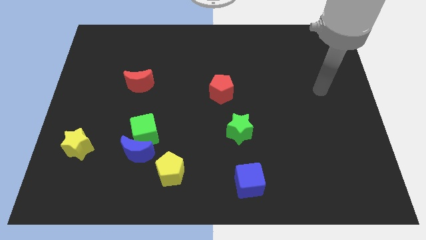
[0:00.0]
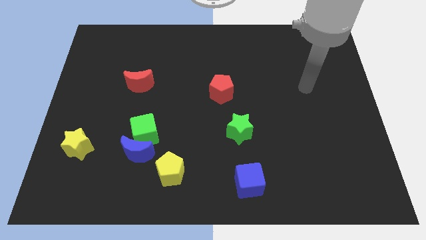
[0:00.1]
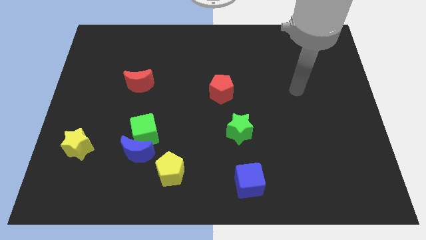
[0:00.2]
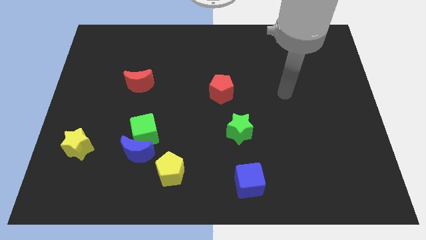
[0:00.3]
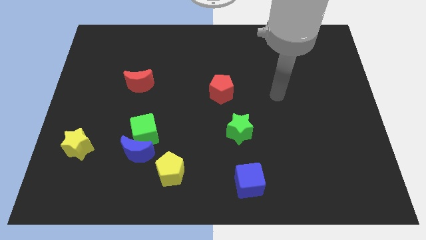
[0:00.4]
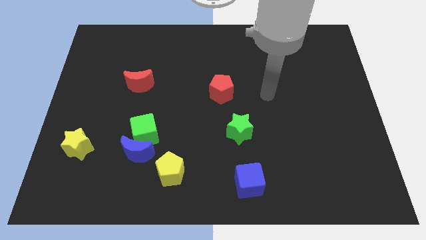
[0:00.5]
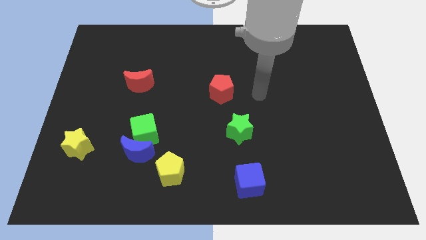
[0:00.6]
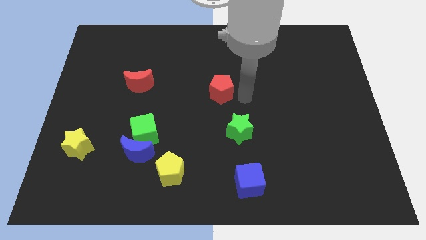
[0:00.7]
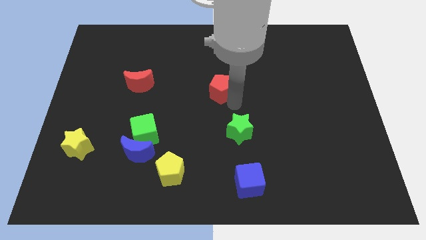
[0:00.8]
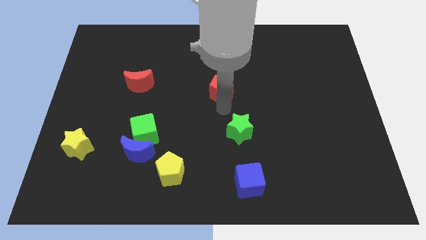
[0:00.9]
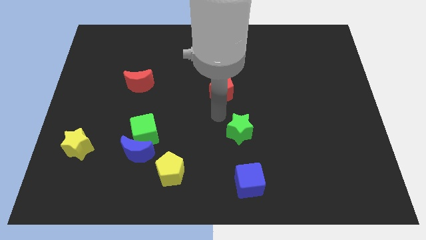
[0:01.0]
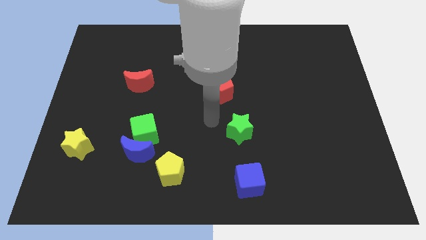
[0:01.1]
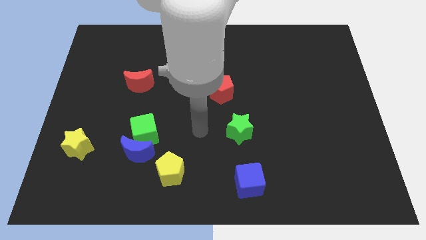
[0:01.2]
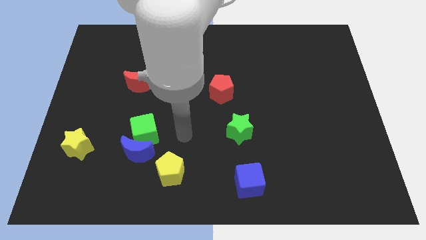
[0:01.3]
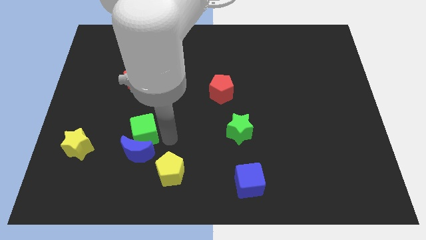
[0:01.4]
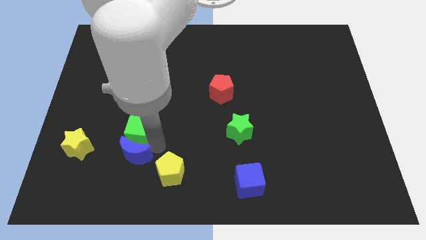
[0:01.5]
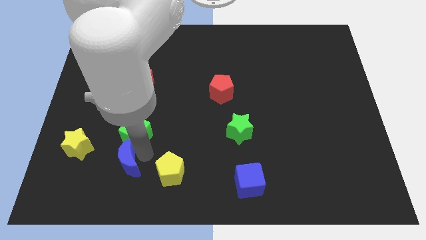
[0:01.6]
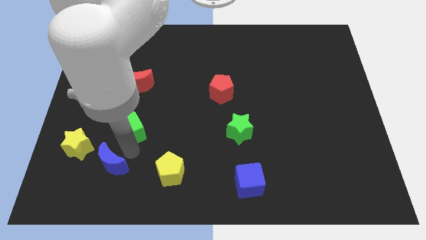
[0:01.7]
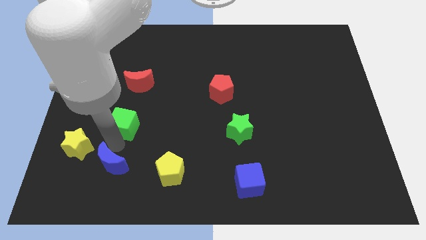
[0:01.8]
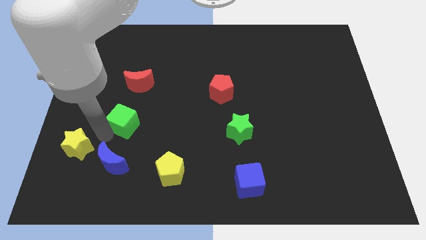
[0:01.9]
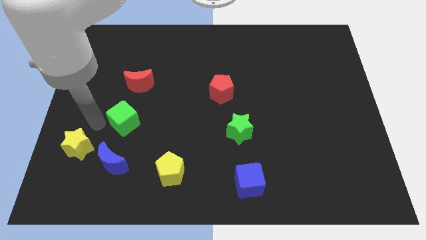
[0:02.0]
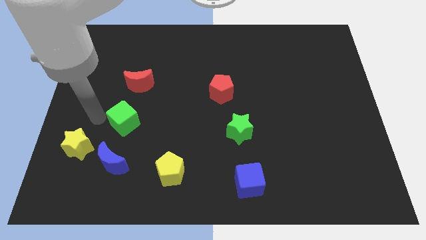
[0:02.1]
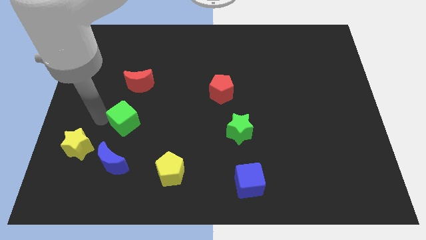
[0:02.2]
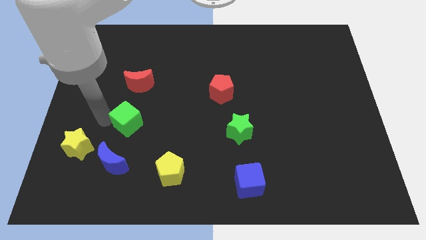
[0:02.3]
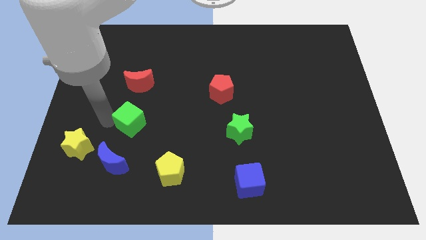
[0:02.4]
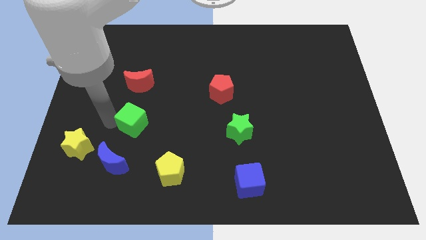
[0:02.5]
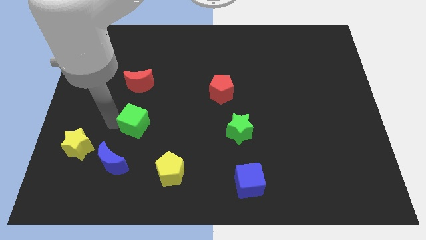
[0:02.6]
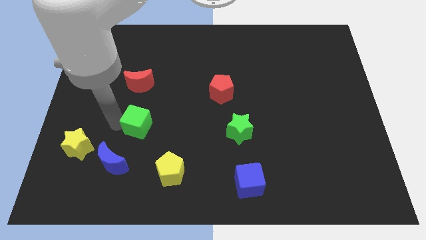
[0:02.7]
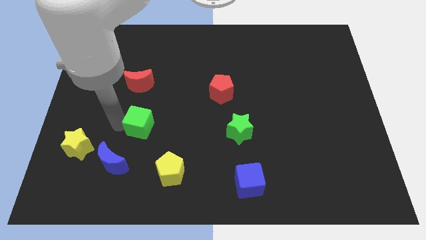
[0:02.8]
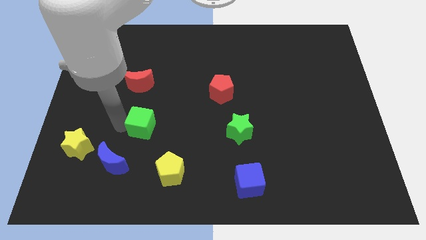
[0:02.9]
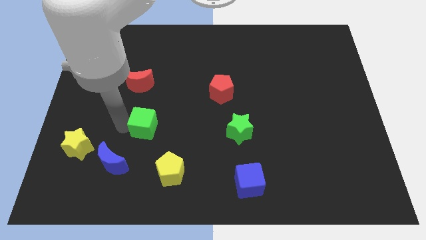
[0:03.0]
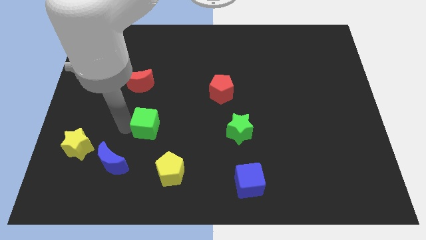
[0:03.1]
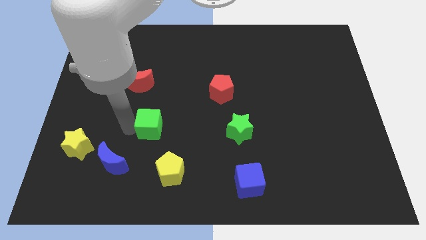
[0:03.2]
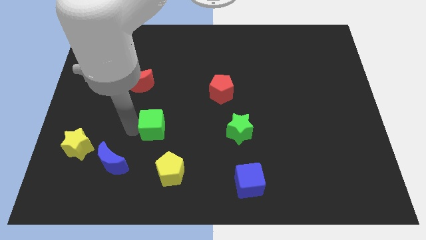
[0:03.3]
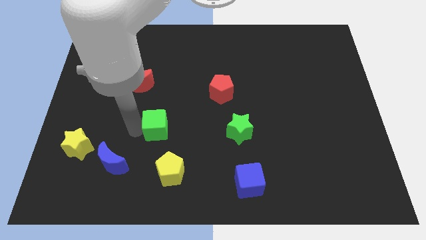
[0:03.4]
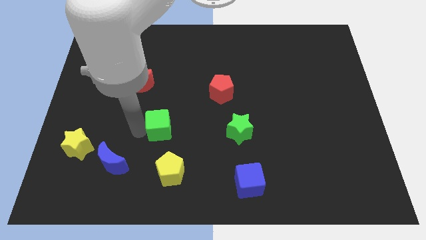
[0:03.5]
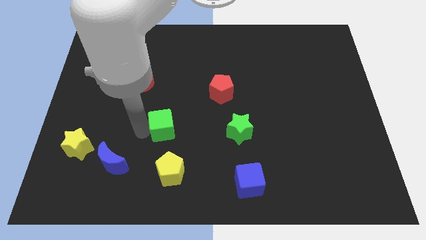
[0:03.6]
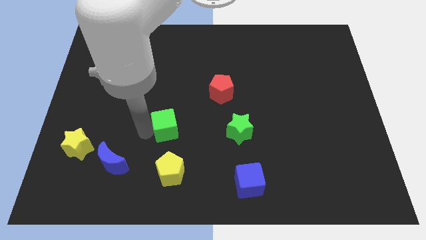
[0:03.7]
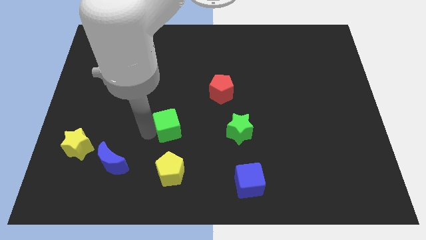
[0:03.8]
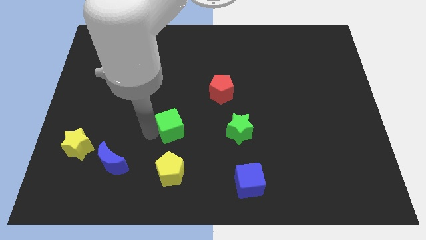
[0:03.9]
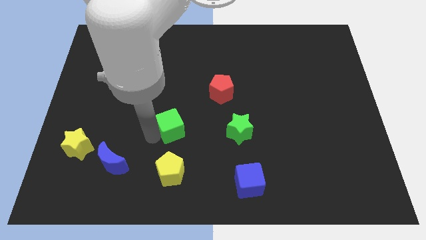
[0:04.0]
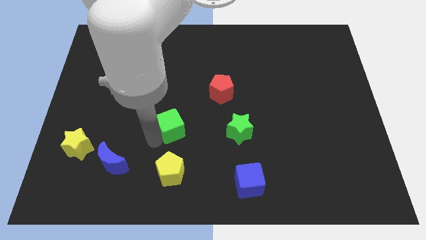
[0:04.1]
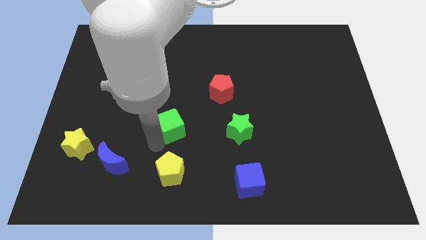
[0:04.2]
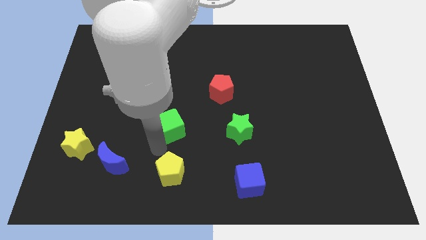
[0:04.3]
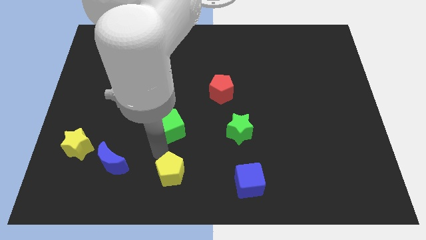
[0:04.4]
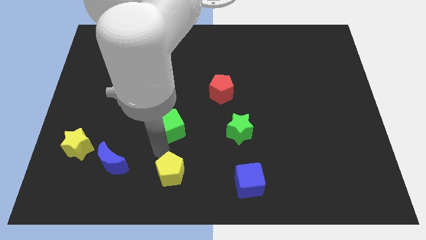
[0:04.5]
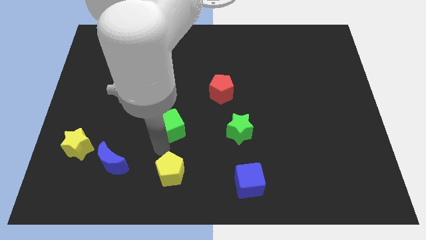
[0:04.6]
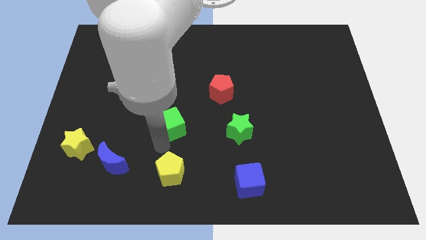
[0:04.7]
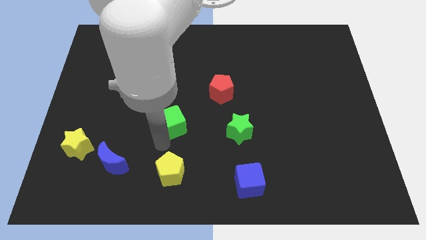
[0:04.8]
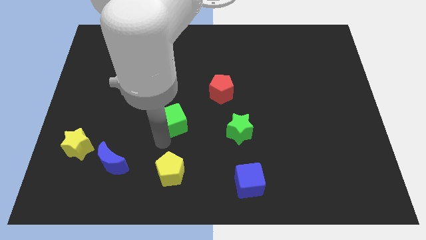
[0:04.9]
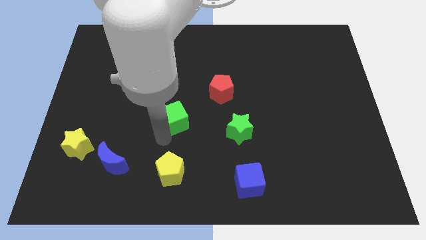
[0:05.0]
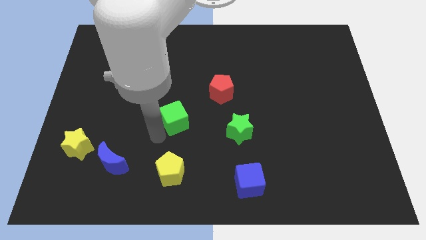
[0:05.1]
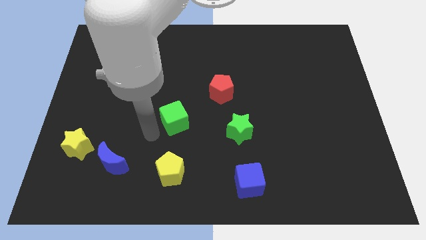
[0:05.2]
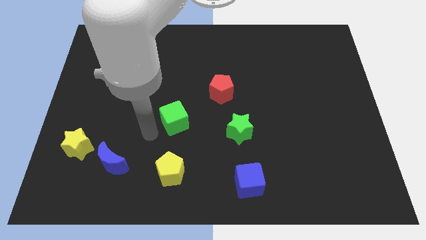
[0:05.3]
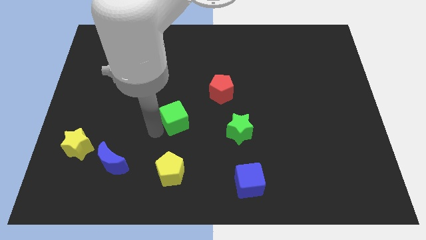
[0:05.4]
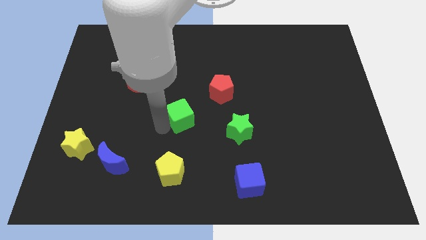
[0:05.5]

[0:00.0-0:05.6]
move the green cube diagonally down and to the left of the red pentagon

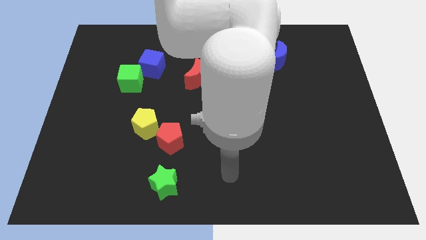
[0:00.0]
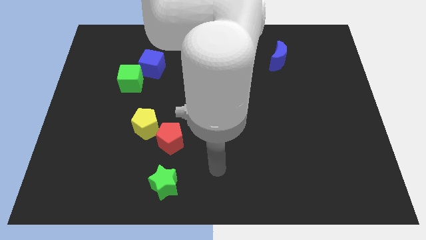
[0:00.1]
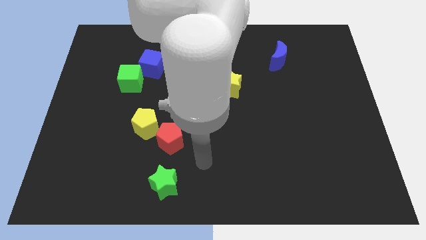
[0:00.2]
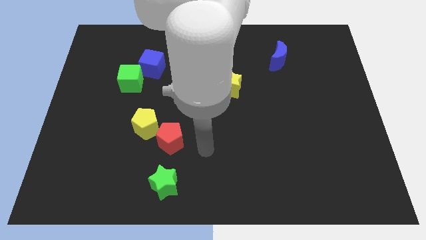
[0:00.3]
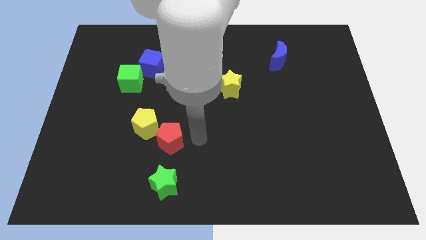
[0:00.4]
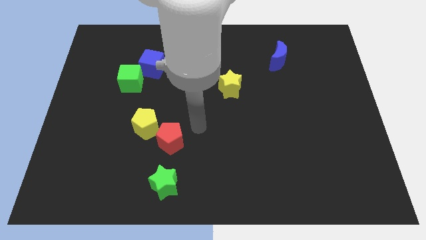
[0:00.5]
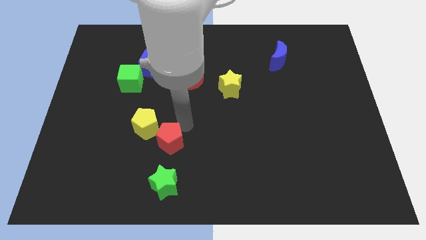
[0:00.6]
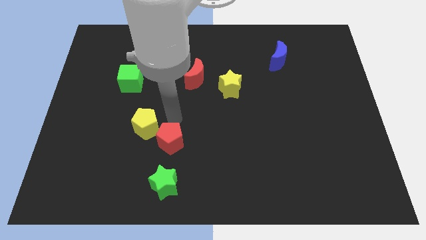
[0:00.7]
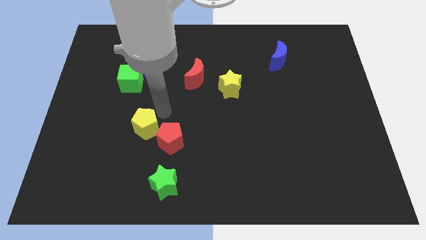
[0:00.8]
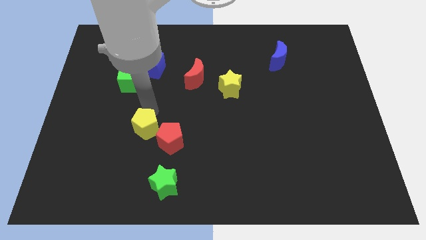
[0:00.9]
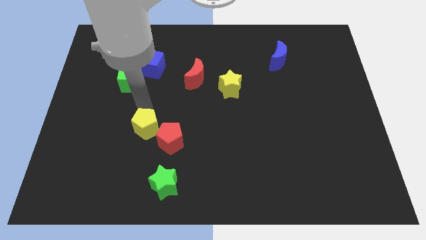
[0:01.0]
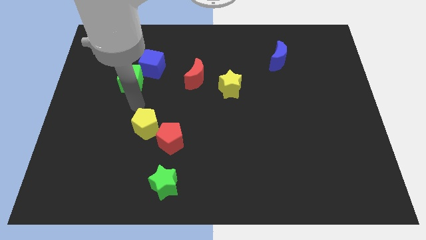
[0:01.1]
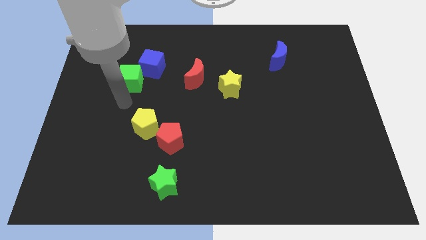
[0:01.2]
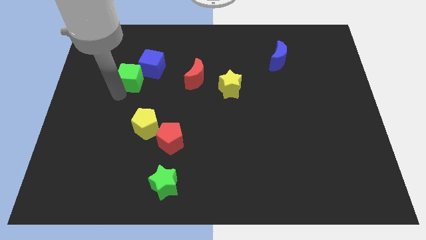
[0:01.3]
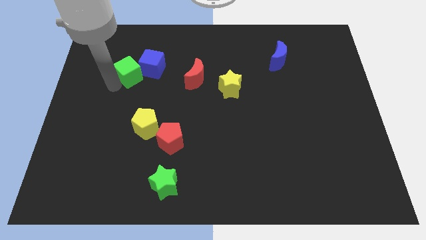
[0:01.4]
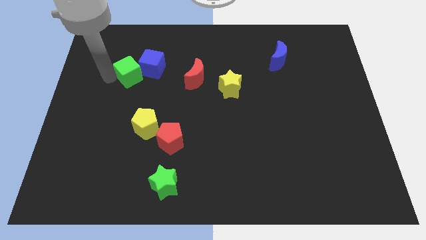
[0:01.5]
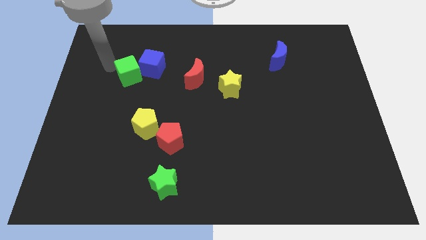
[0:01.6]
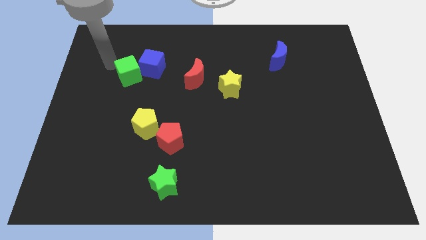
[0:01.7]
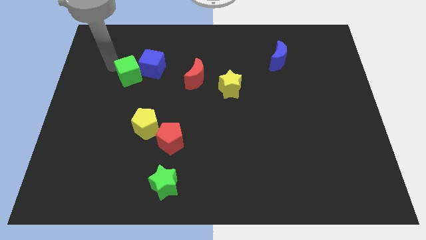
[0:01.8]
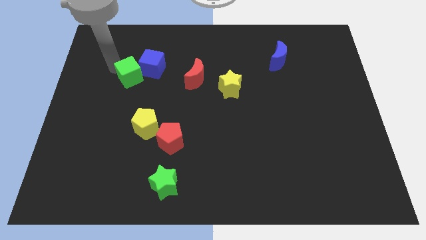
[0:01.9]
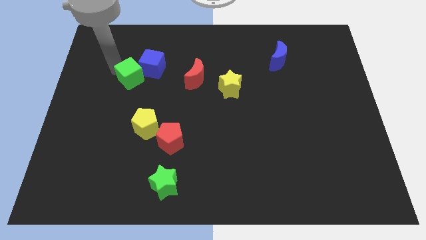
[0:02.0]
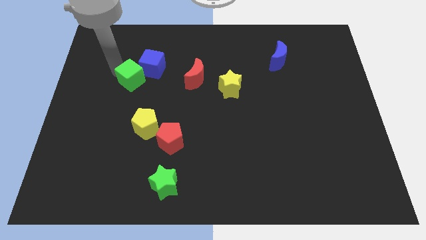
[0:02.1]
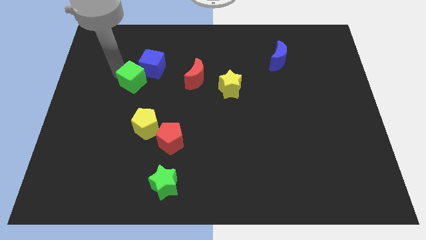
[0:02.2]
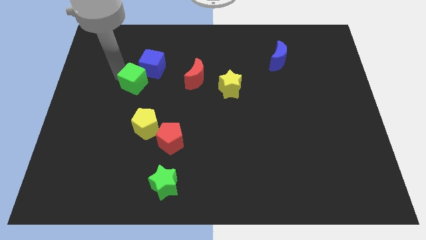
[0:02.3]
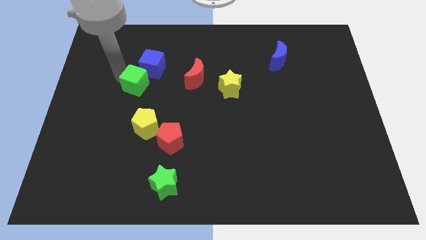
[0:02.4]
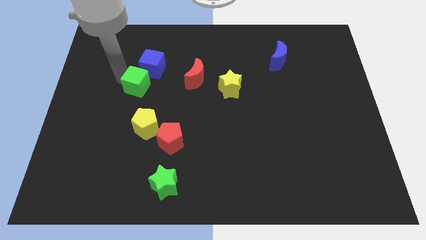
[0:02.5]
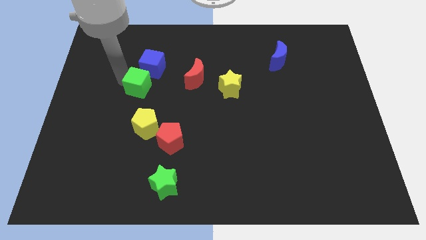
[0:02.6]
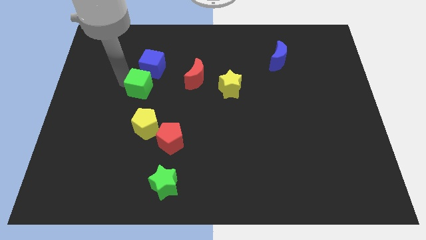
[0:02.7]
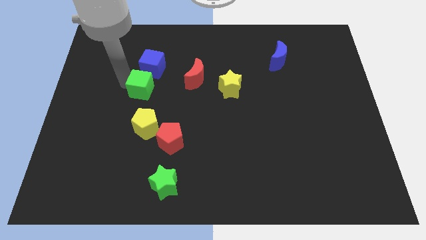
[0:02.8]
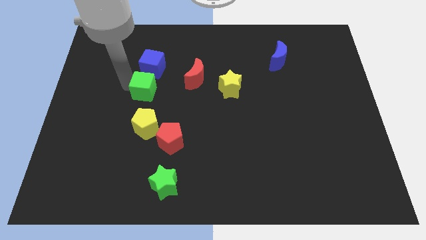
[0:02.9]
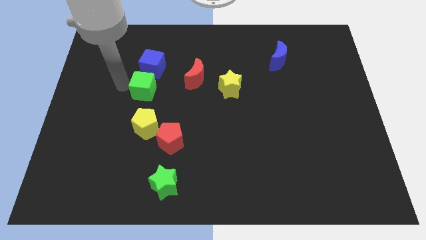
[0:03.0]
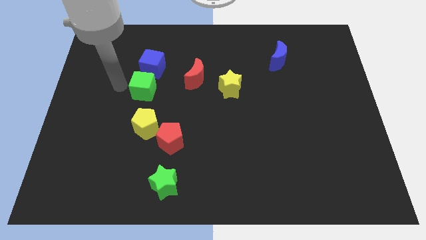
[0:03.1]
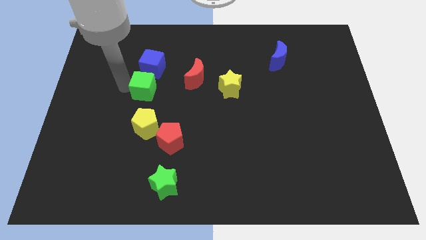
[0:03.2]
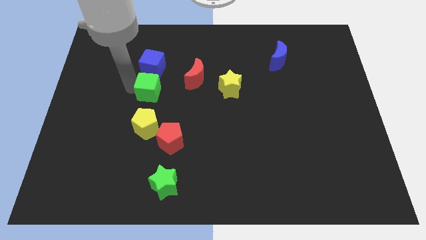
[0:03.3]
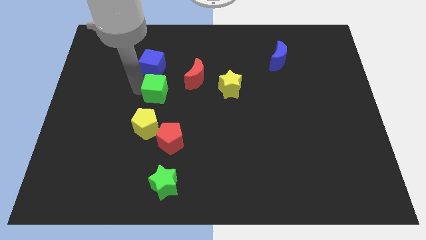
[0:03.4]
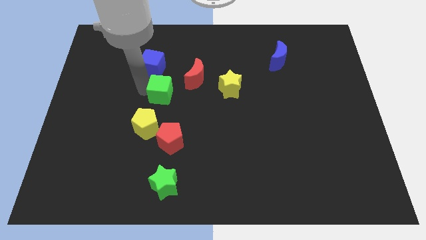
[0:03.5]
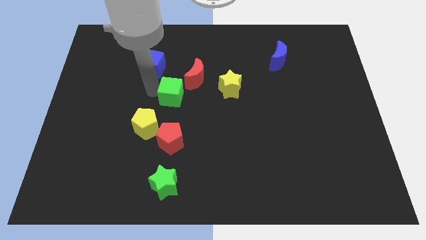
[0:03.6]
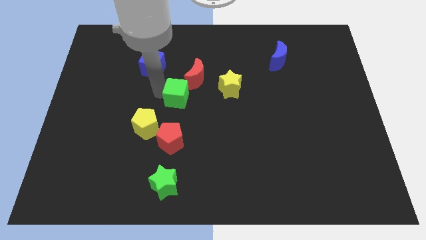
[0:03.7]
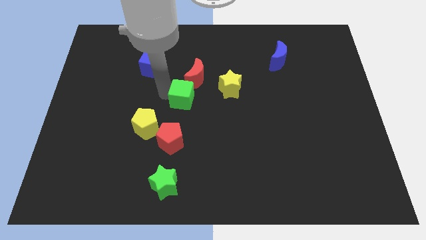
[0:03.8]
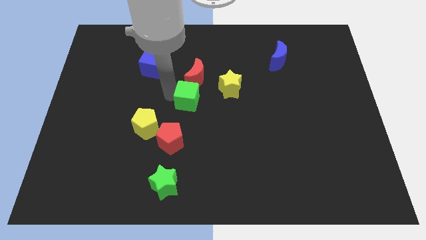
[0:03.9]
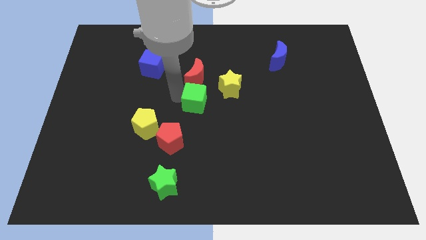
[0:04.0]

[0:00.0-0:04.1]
slide the green cube to the bottom left of the yellow star
